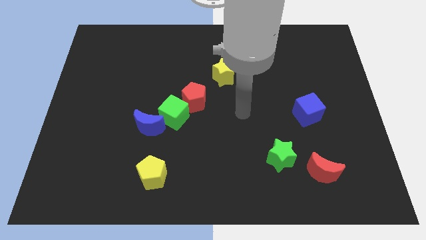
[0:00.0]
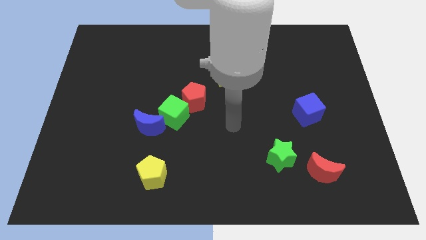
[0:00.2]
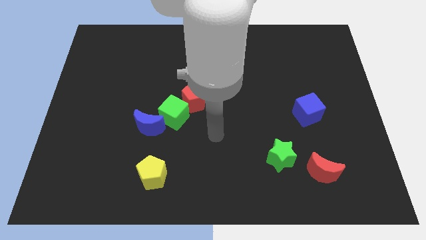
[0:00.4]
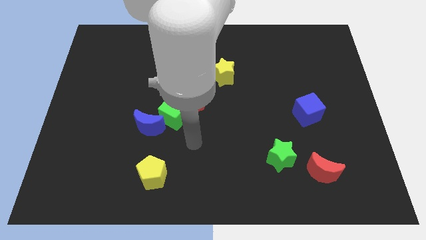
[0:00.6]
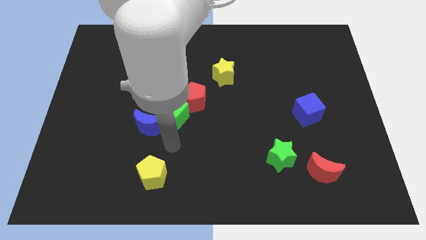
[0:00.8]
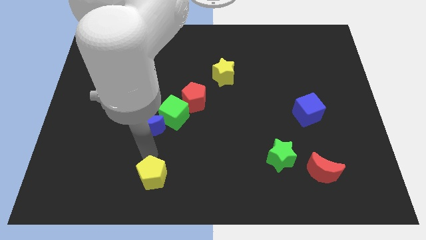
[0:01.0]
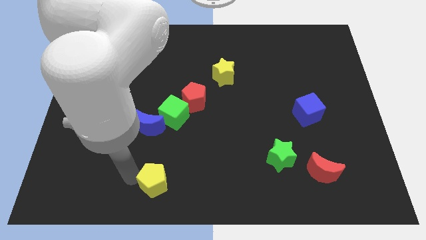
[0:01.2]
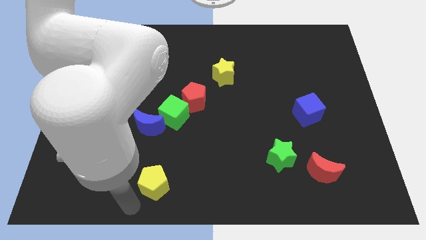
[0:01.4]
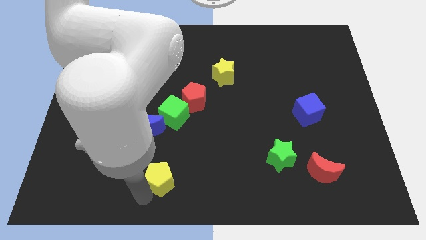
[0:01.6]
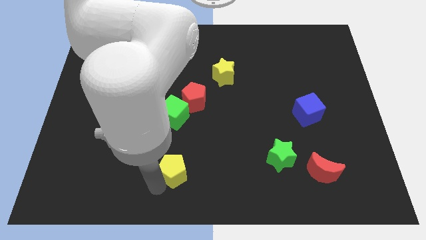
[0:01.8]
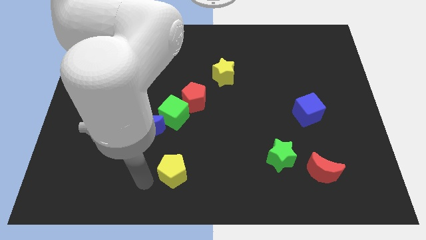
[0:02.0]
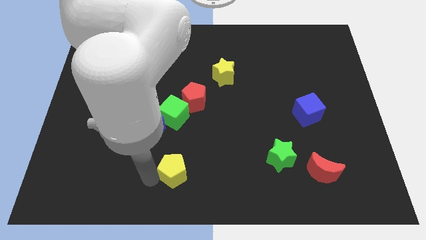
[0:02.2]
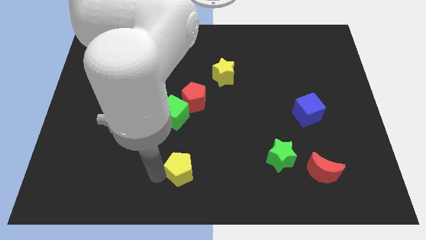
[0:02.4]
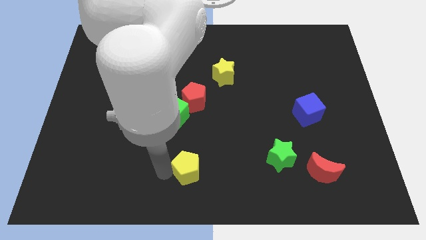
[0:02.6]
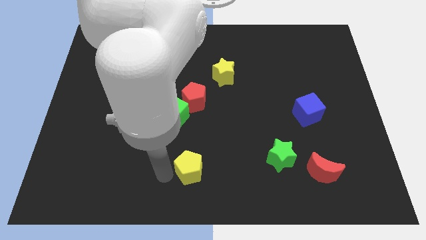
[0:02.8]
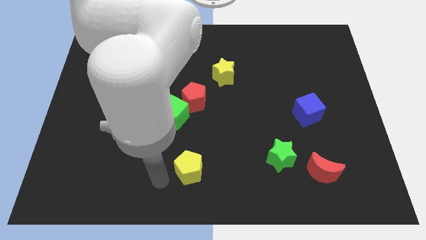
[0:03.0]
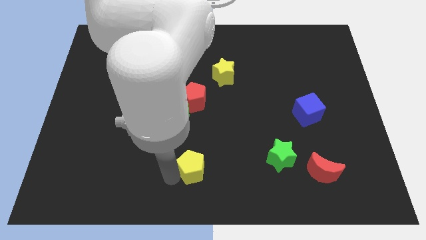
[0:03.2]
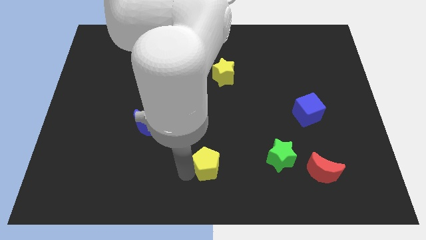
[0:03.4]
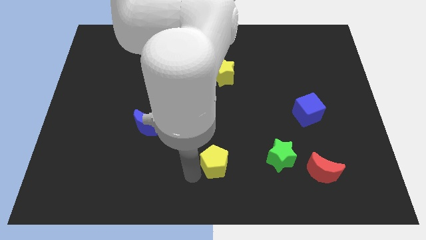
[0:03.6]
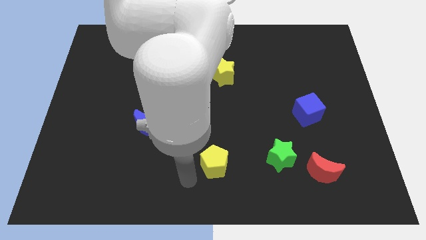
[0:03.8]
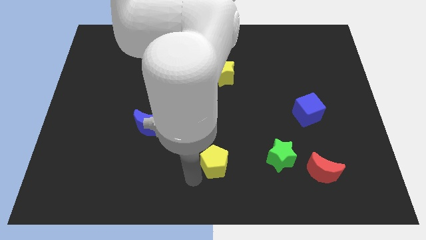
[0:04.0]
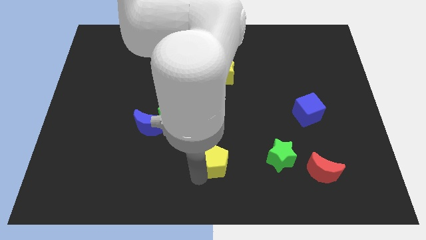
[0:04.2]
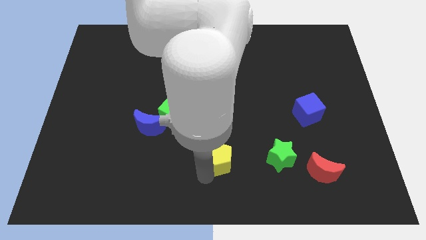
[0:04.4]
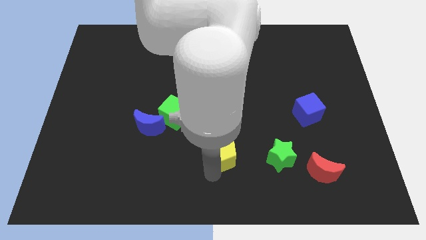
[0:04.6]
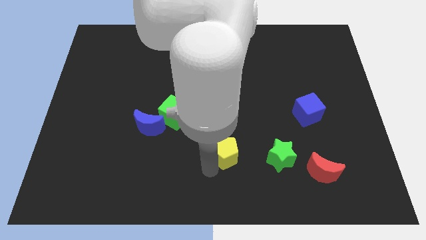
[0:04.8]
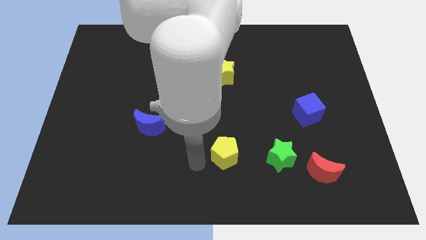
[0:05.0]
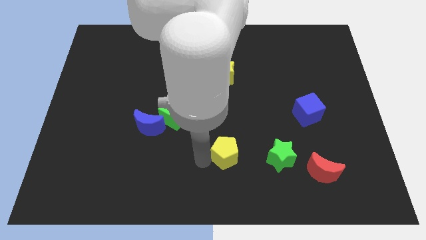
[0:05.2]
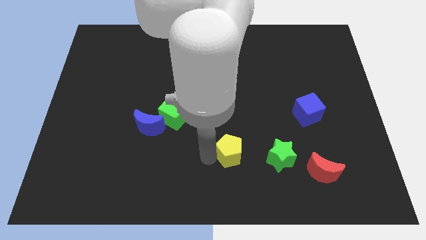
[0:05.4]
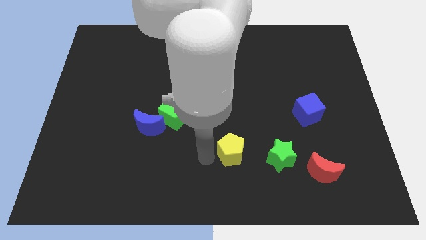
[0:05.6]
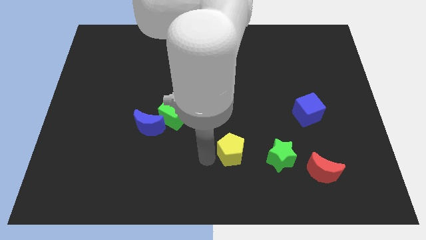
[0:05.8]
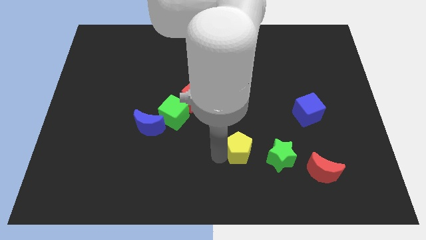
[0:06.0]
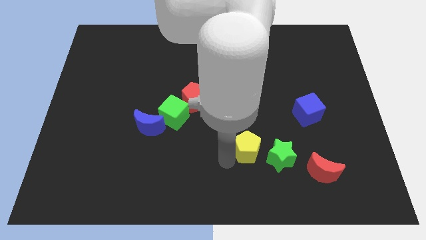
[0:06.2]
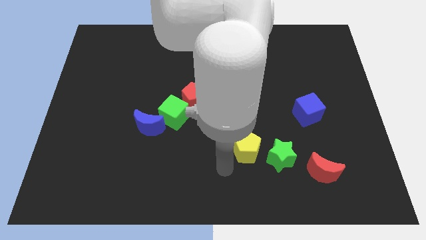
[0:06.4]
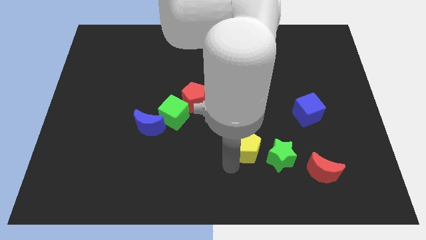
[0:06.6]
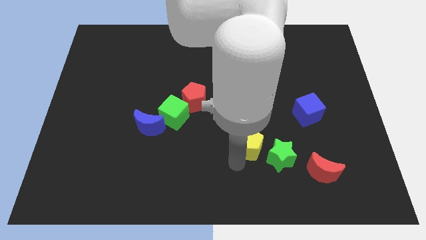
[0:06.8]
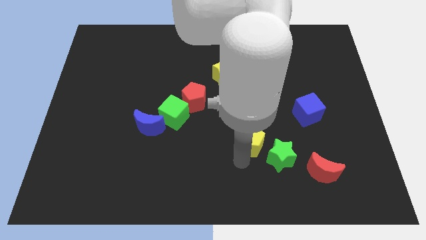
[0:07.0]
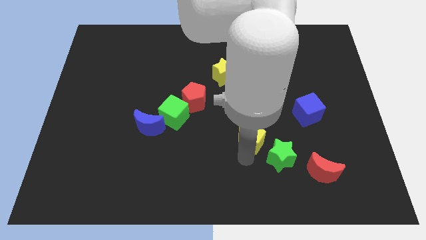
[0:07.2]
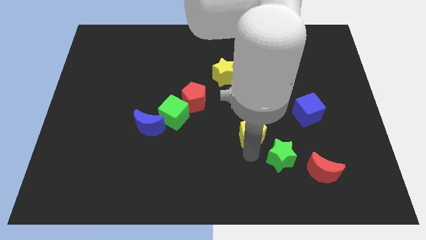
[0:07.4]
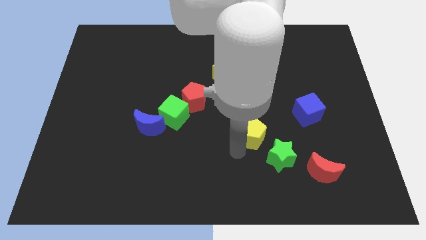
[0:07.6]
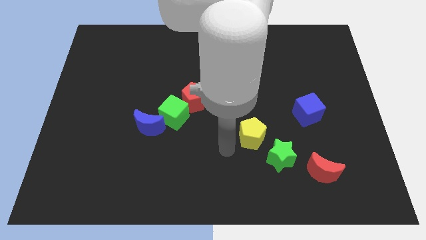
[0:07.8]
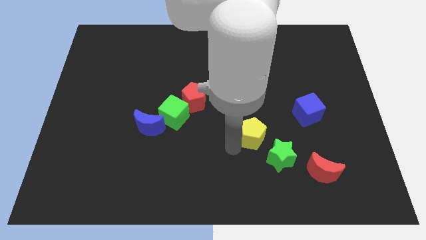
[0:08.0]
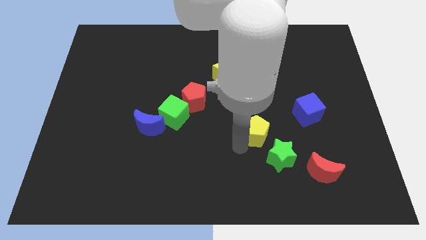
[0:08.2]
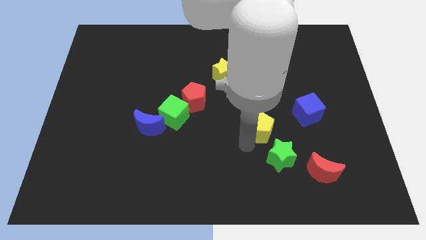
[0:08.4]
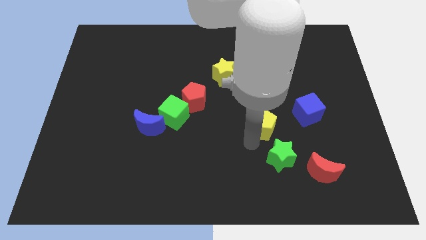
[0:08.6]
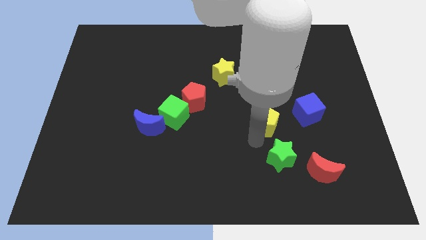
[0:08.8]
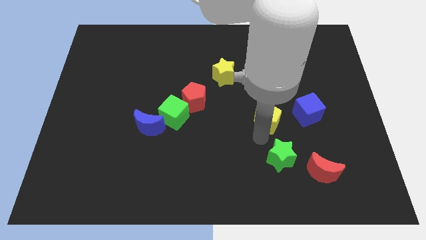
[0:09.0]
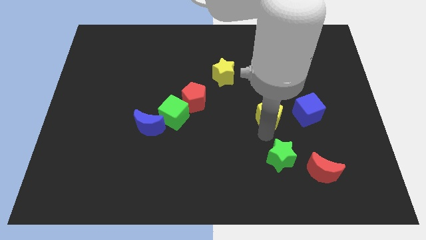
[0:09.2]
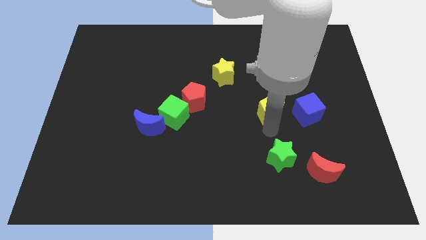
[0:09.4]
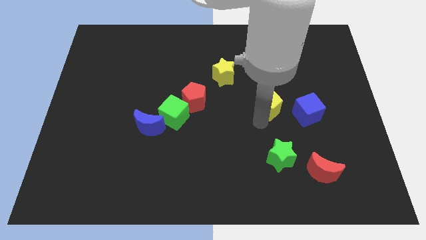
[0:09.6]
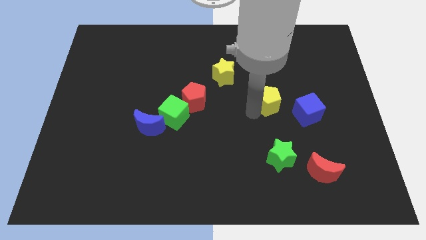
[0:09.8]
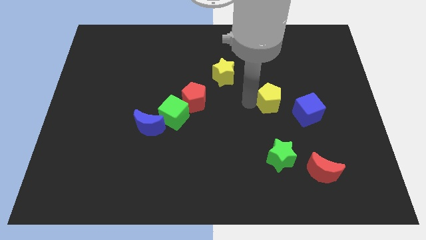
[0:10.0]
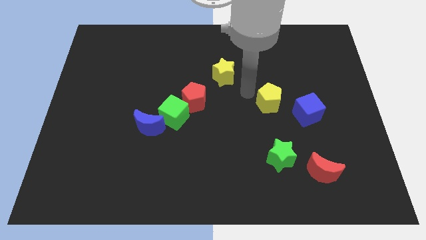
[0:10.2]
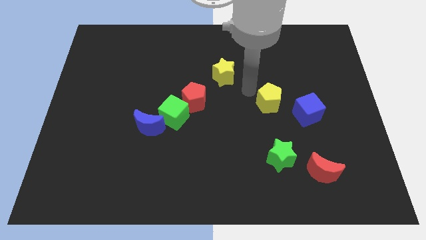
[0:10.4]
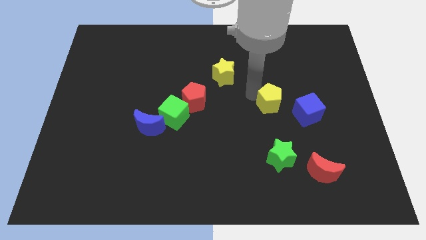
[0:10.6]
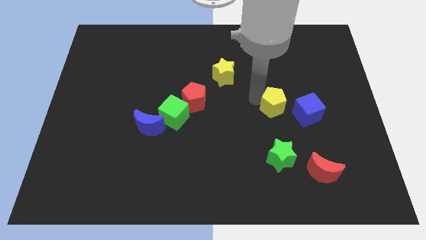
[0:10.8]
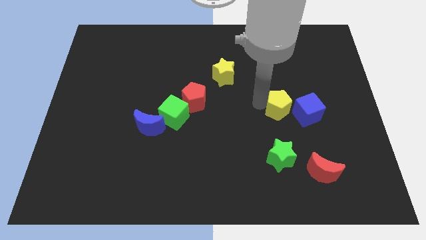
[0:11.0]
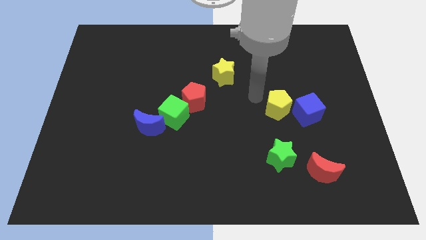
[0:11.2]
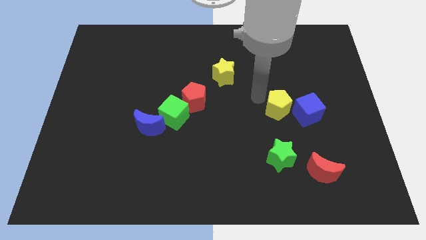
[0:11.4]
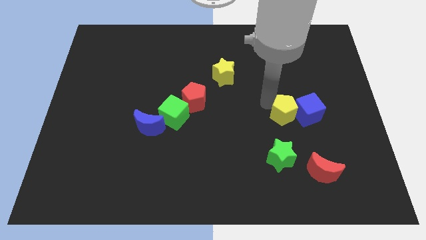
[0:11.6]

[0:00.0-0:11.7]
move the yellow pentagon towards the blue cube

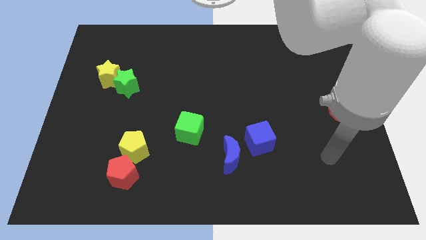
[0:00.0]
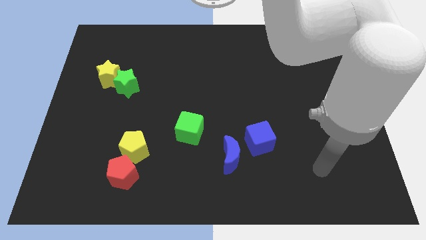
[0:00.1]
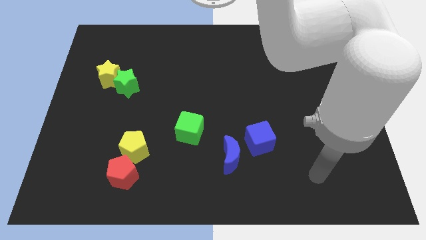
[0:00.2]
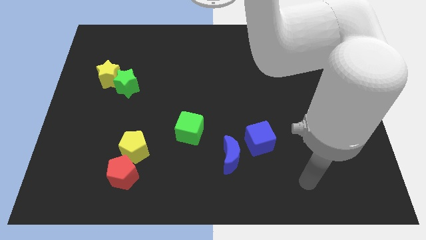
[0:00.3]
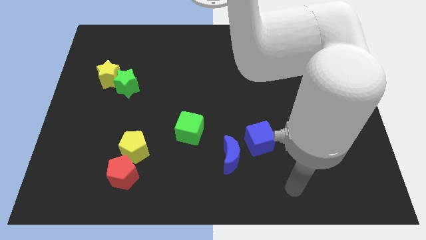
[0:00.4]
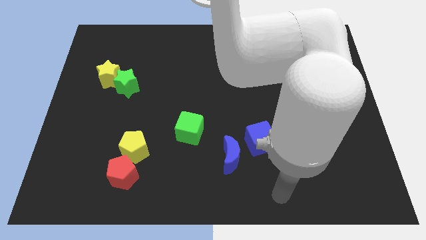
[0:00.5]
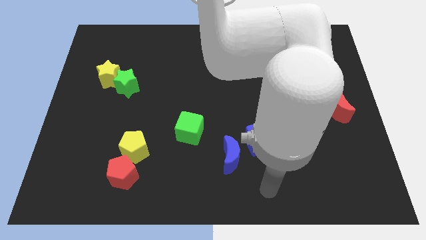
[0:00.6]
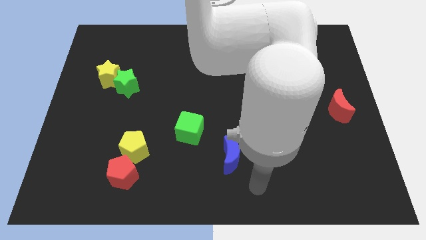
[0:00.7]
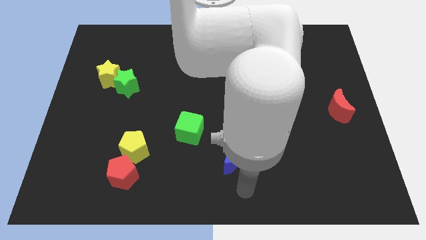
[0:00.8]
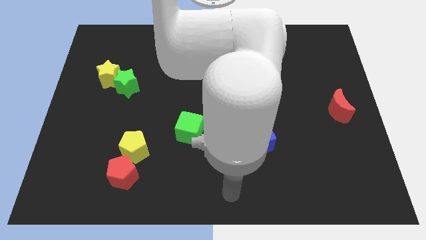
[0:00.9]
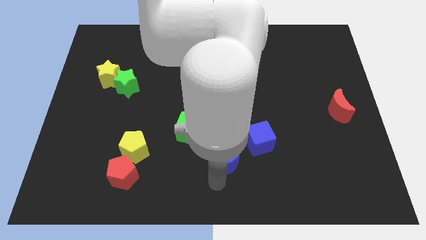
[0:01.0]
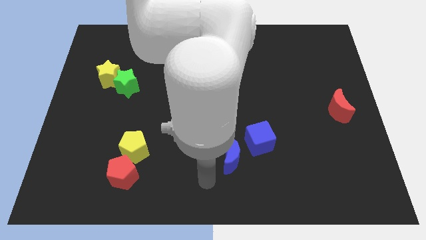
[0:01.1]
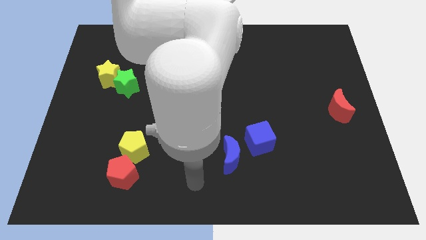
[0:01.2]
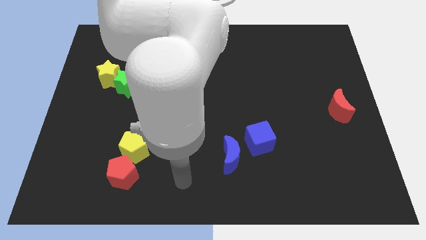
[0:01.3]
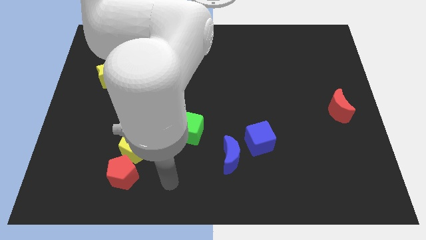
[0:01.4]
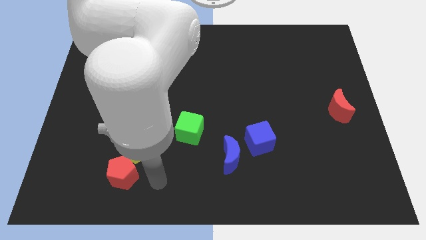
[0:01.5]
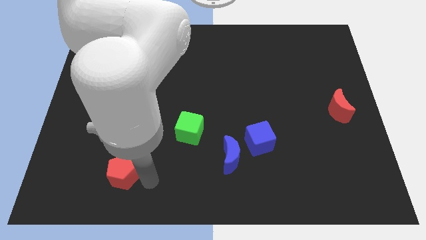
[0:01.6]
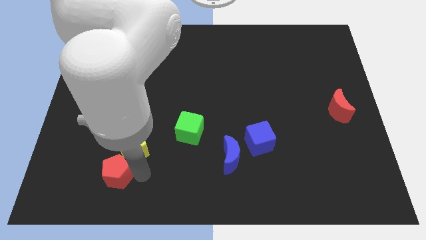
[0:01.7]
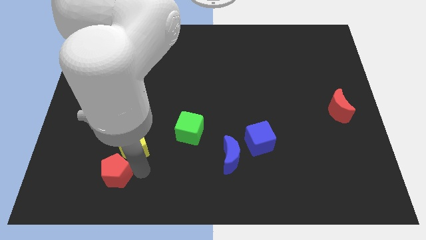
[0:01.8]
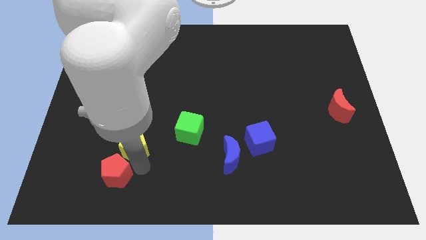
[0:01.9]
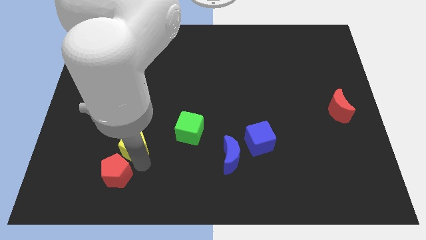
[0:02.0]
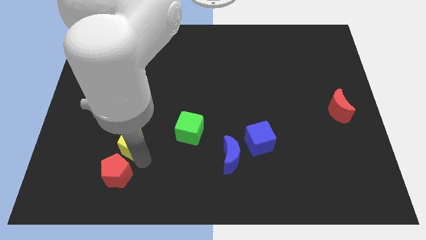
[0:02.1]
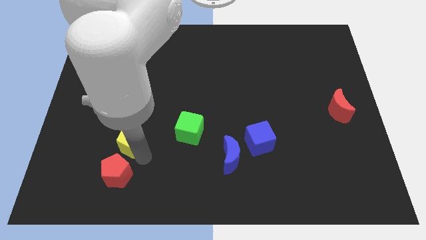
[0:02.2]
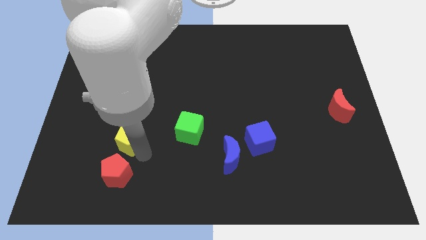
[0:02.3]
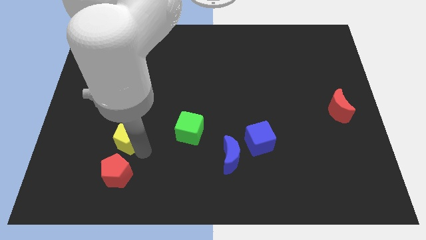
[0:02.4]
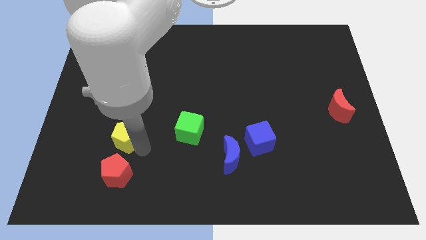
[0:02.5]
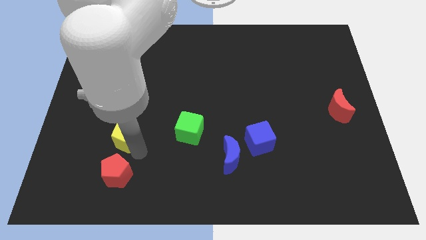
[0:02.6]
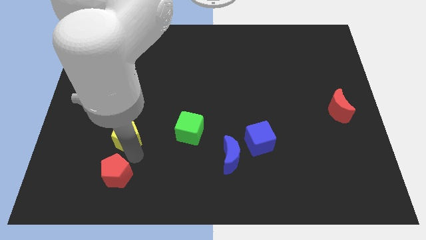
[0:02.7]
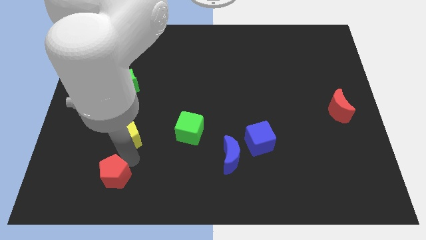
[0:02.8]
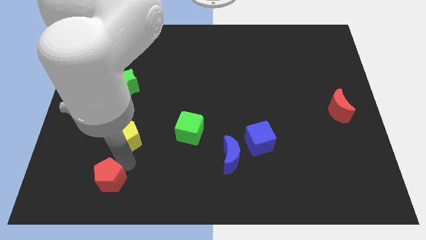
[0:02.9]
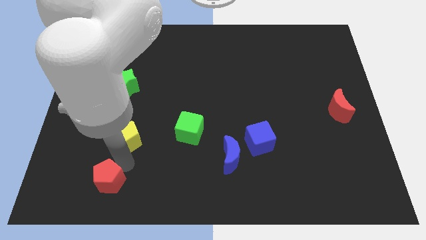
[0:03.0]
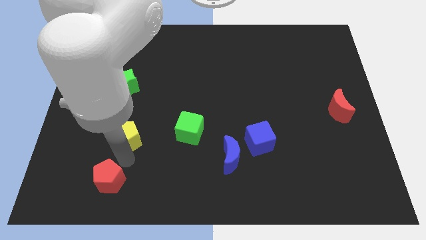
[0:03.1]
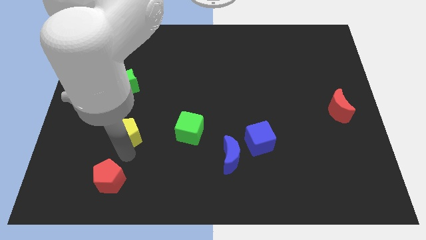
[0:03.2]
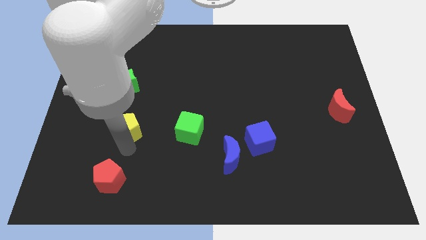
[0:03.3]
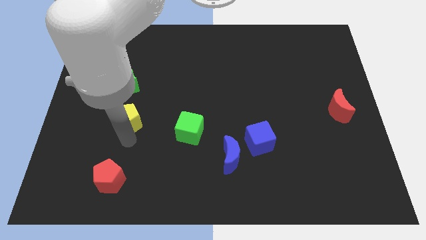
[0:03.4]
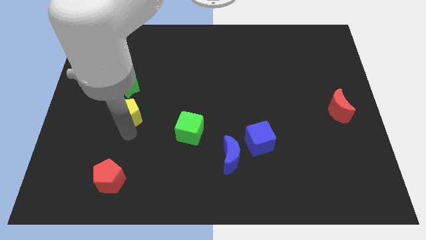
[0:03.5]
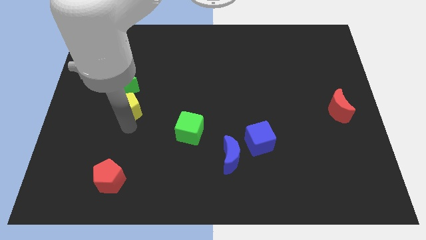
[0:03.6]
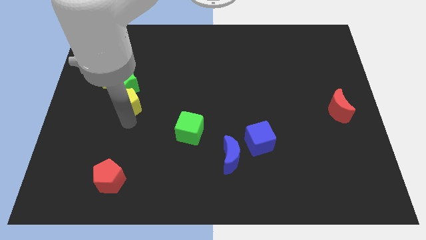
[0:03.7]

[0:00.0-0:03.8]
move the yellow pentagon close to the green star
